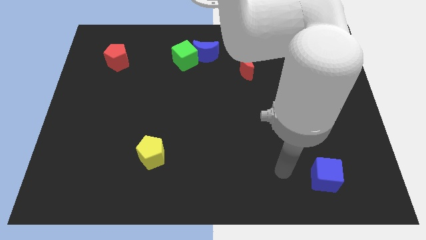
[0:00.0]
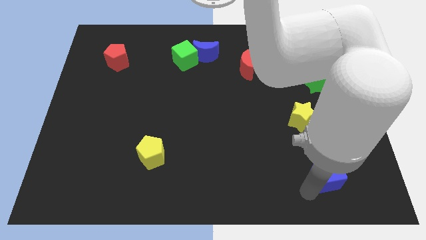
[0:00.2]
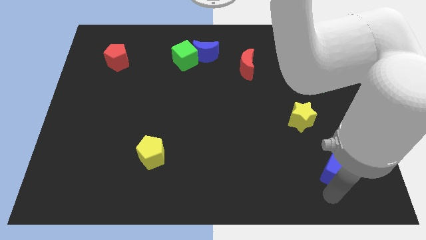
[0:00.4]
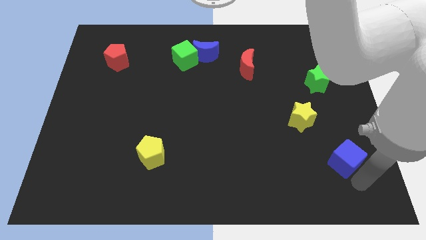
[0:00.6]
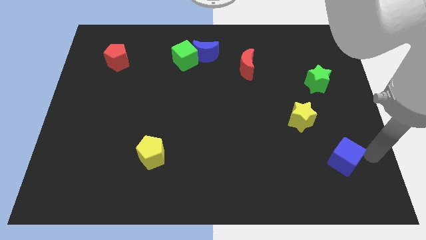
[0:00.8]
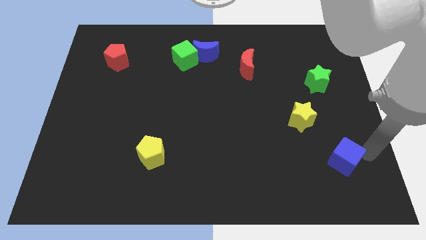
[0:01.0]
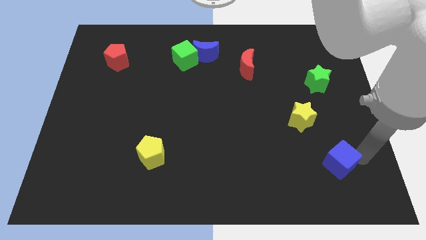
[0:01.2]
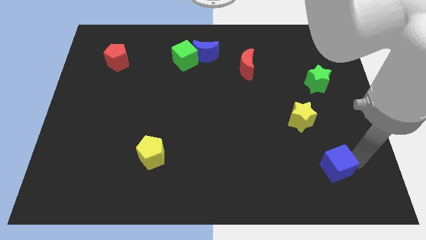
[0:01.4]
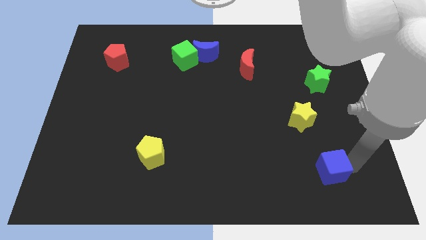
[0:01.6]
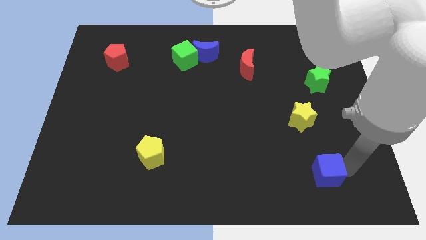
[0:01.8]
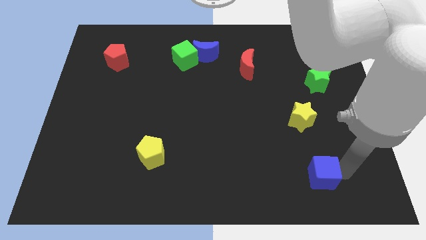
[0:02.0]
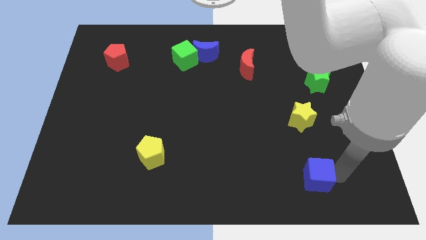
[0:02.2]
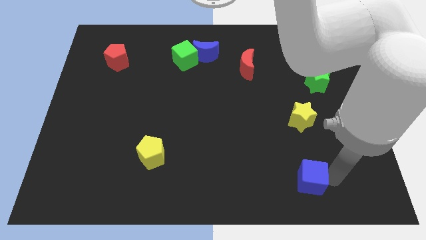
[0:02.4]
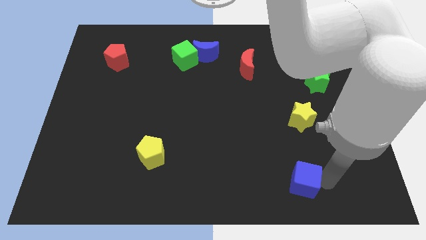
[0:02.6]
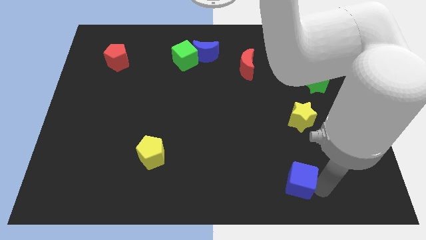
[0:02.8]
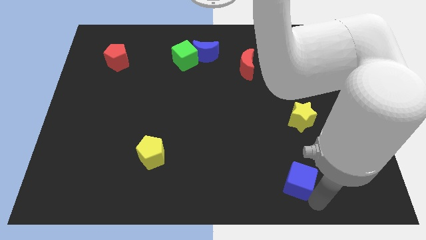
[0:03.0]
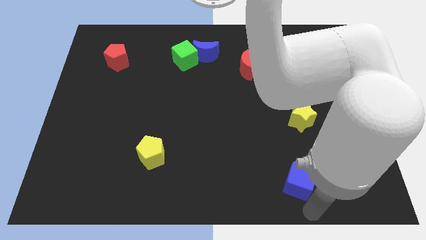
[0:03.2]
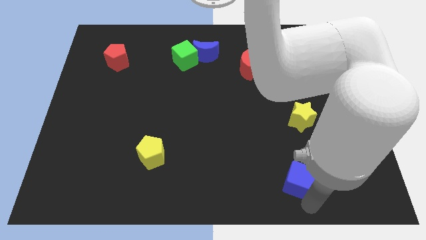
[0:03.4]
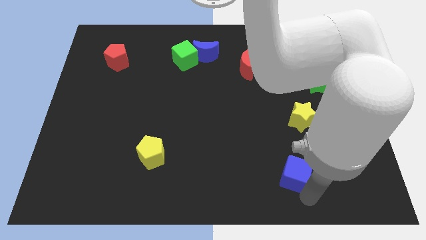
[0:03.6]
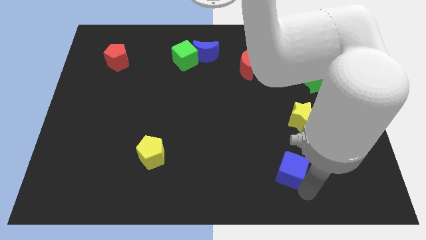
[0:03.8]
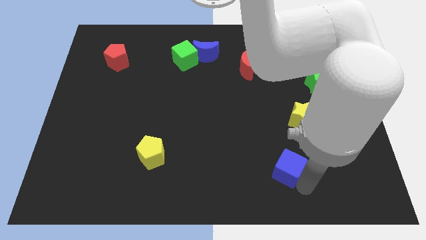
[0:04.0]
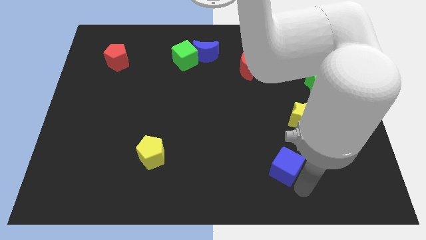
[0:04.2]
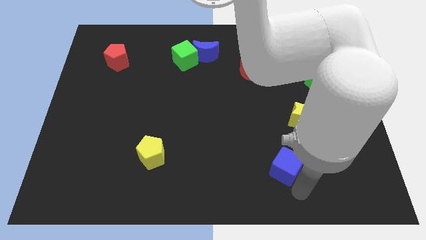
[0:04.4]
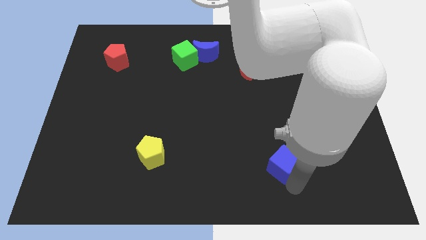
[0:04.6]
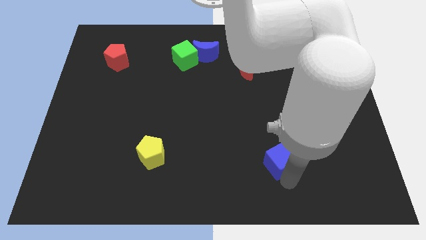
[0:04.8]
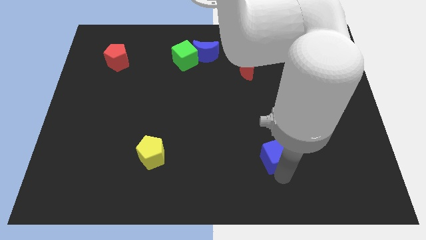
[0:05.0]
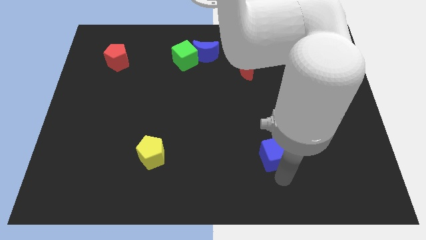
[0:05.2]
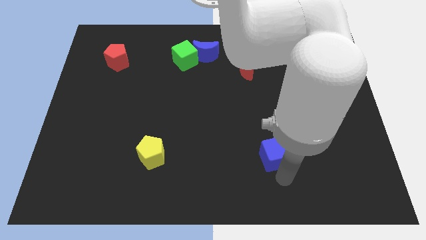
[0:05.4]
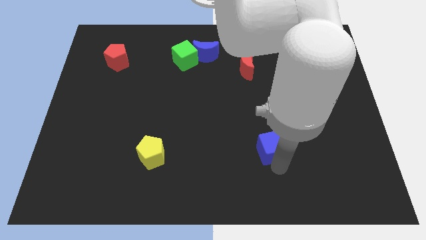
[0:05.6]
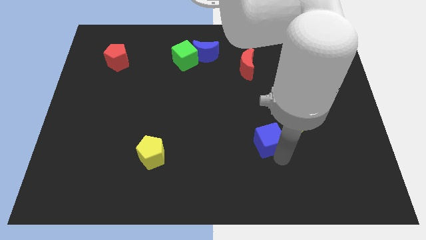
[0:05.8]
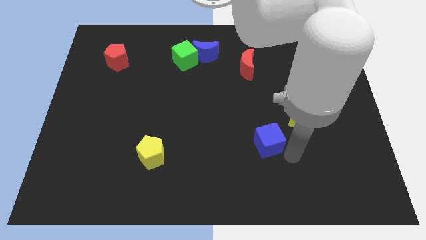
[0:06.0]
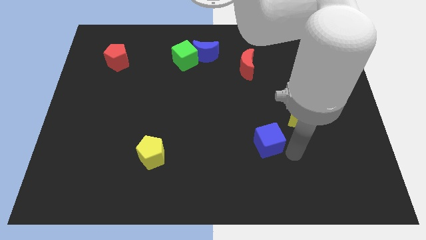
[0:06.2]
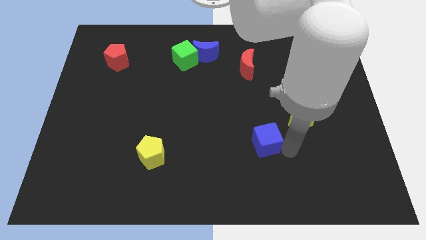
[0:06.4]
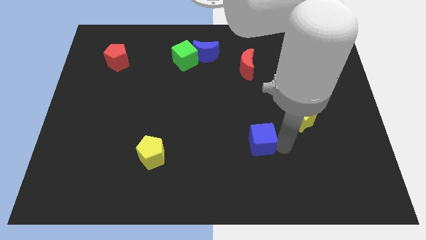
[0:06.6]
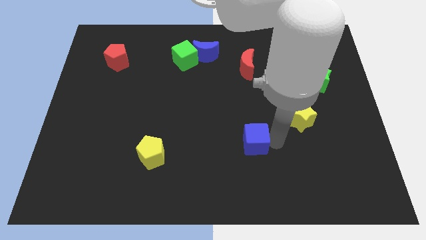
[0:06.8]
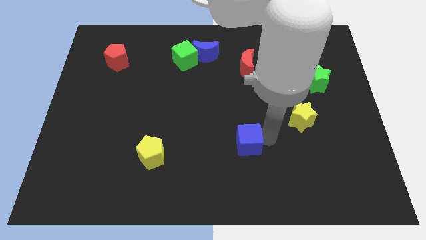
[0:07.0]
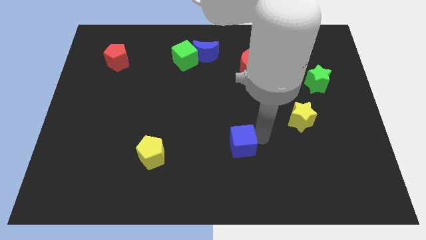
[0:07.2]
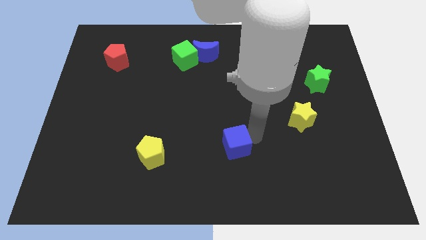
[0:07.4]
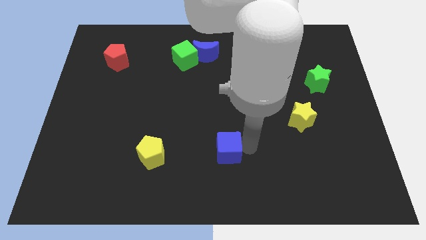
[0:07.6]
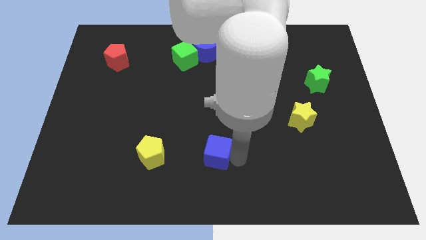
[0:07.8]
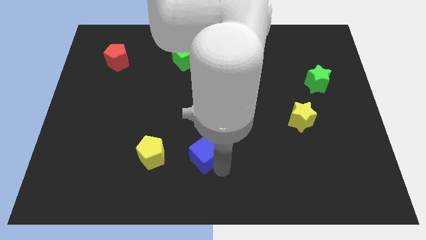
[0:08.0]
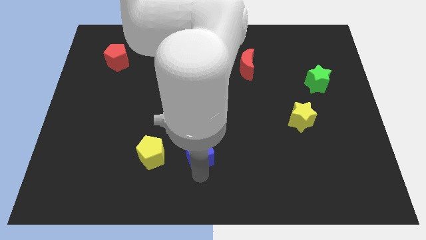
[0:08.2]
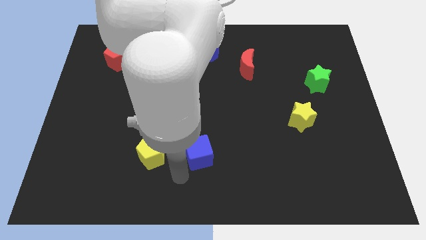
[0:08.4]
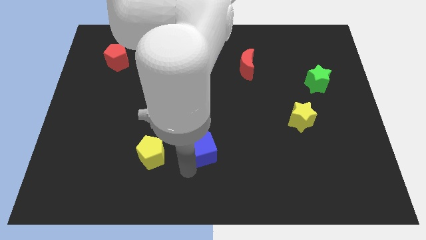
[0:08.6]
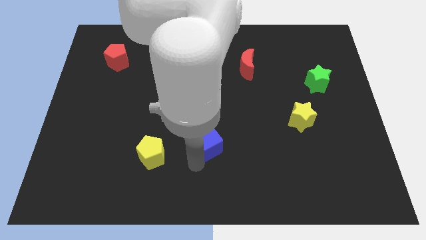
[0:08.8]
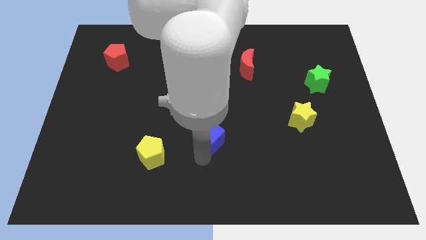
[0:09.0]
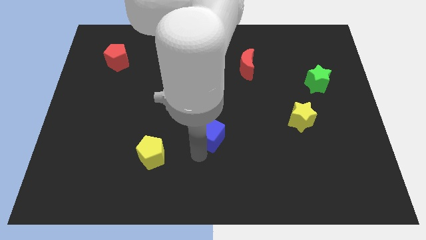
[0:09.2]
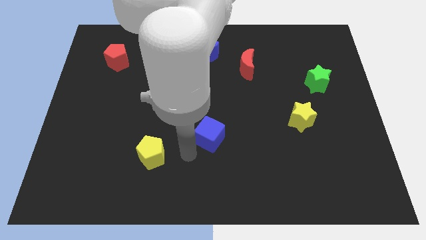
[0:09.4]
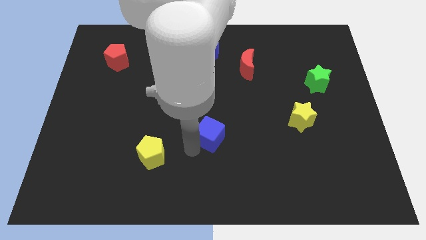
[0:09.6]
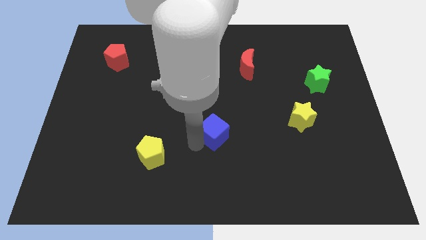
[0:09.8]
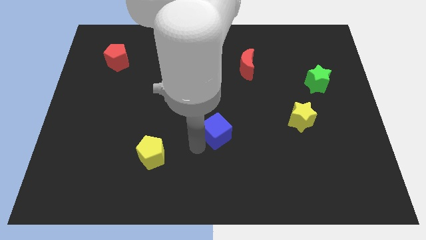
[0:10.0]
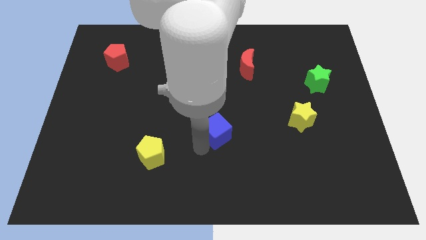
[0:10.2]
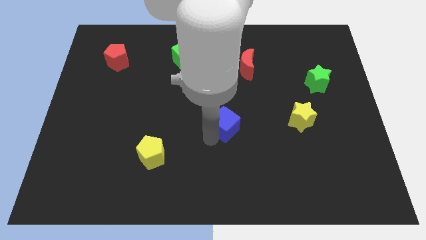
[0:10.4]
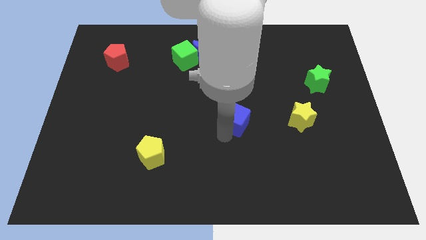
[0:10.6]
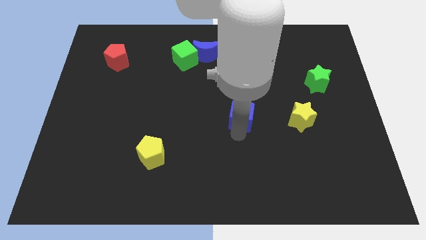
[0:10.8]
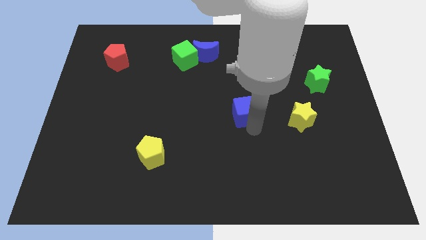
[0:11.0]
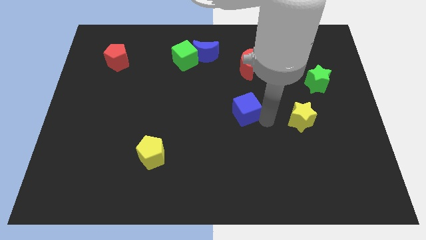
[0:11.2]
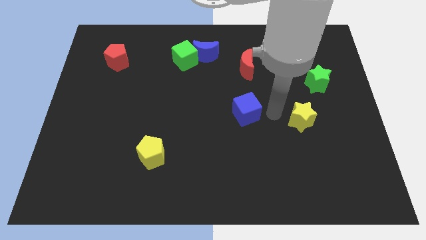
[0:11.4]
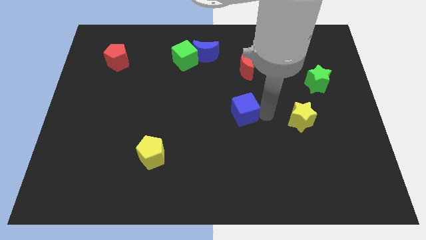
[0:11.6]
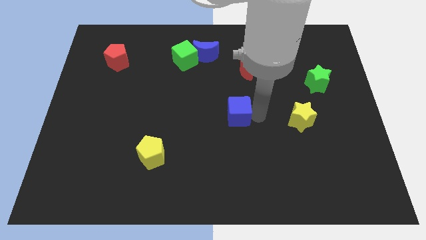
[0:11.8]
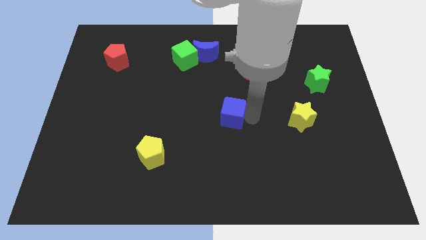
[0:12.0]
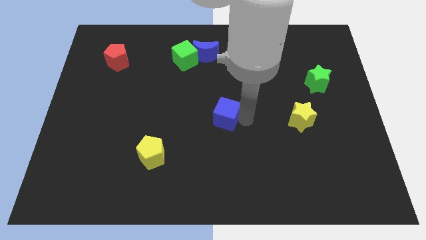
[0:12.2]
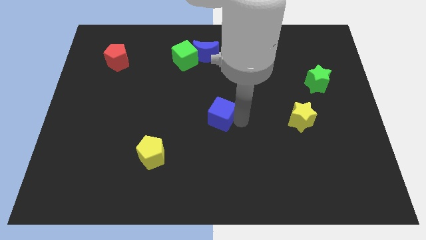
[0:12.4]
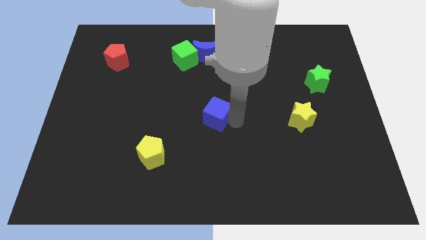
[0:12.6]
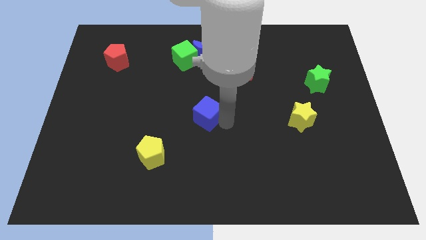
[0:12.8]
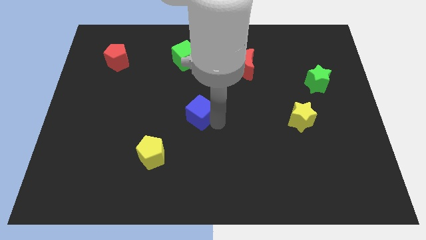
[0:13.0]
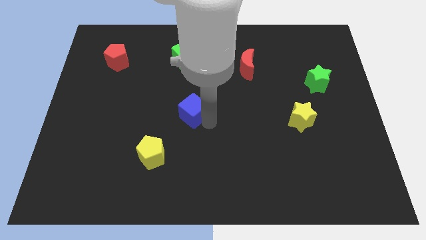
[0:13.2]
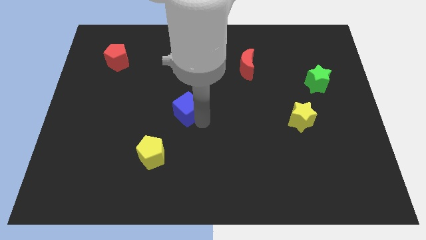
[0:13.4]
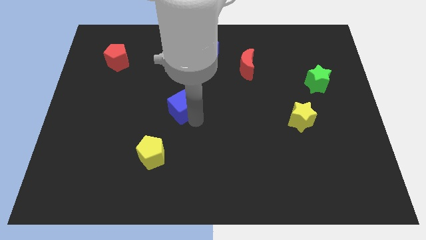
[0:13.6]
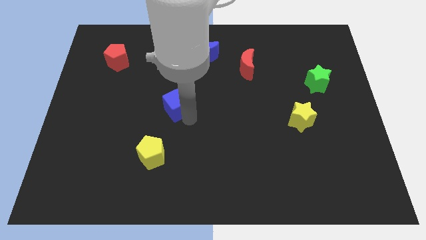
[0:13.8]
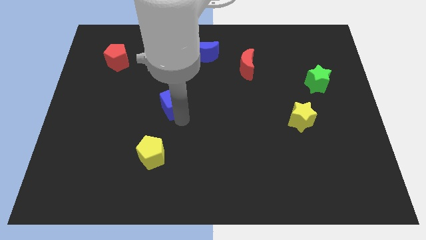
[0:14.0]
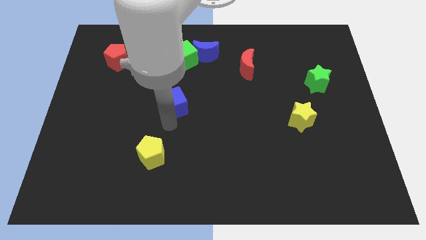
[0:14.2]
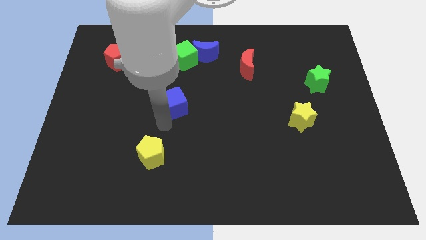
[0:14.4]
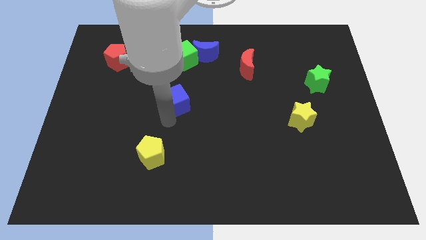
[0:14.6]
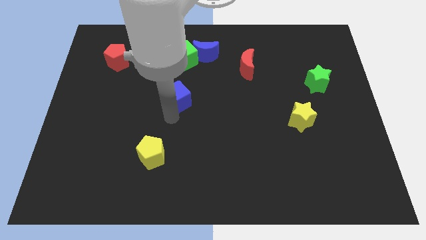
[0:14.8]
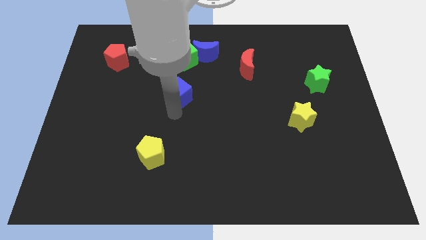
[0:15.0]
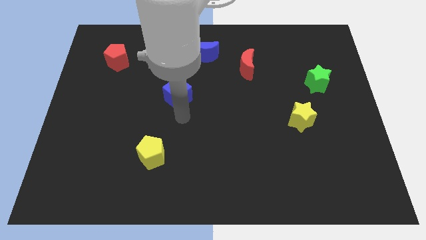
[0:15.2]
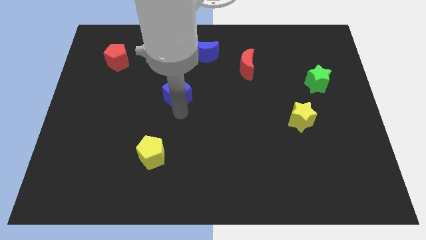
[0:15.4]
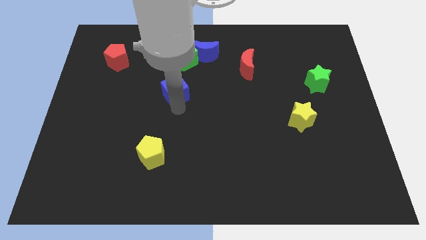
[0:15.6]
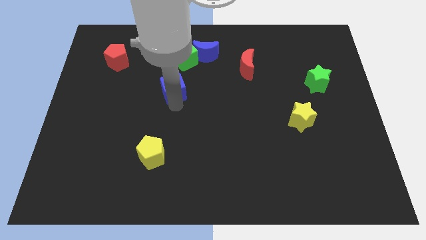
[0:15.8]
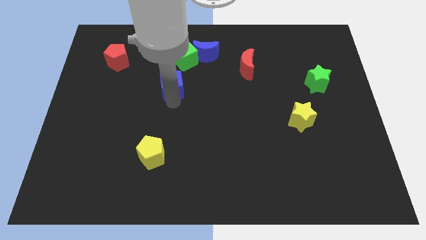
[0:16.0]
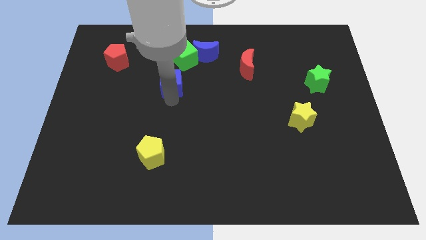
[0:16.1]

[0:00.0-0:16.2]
push the blue cube diagonally down and to the left of the green cube
